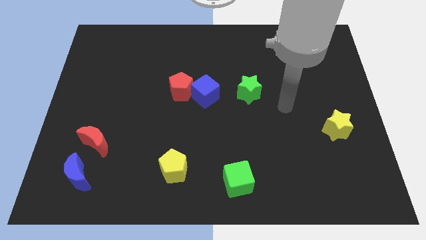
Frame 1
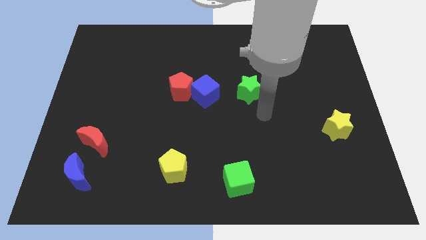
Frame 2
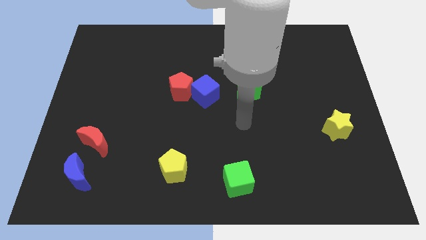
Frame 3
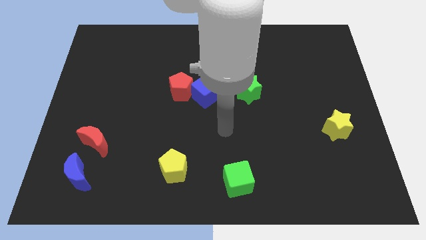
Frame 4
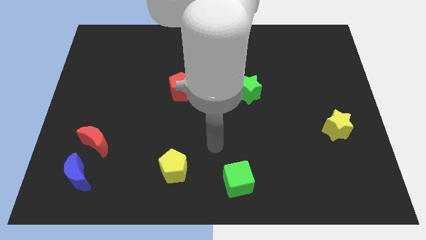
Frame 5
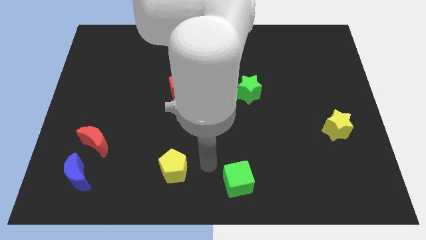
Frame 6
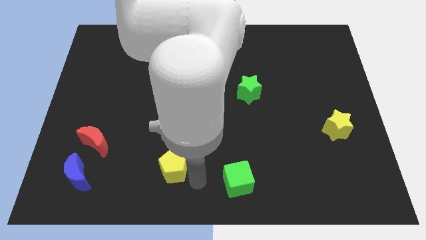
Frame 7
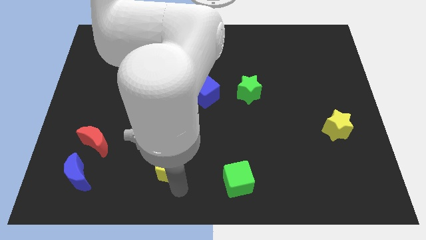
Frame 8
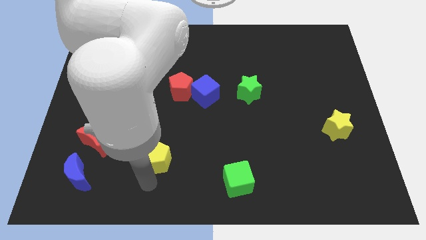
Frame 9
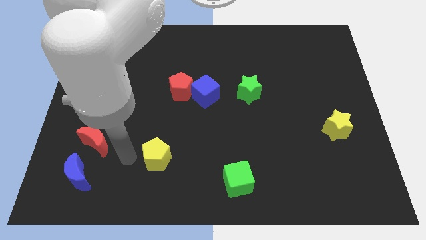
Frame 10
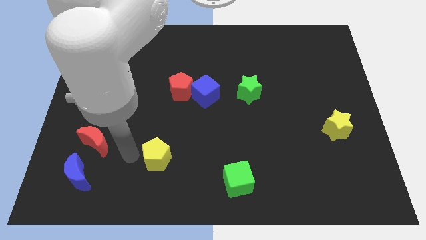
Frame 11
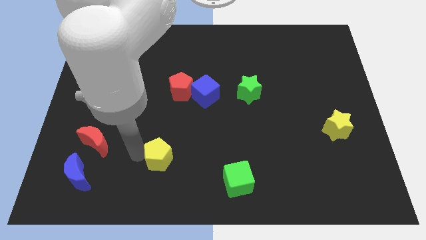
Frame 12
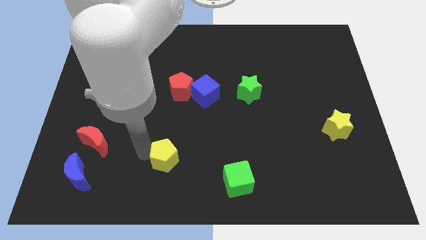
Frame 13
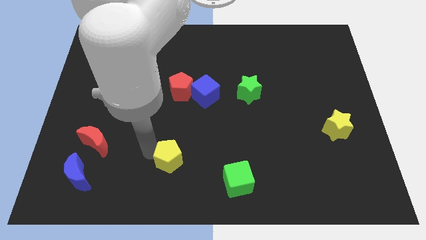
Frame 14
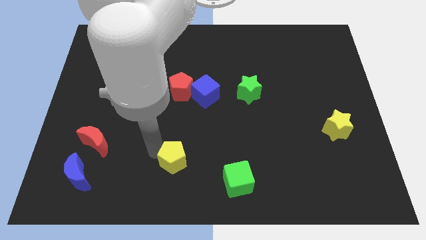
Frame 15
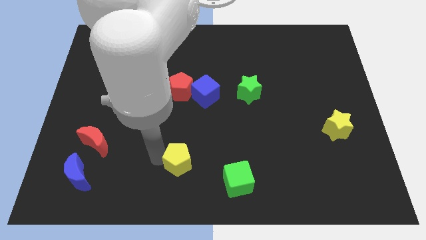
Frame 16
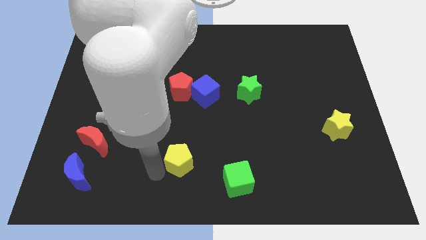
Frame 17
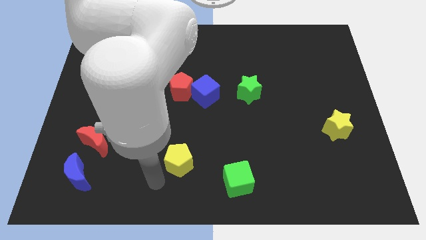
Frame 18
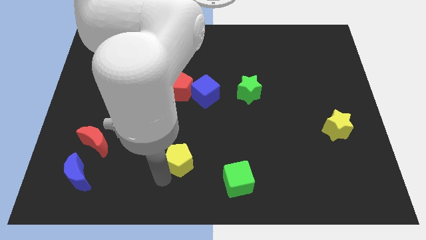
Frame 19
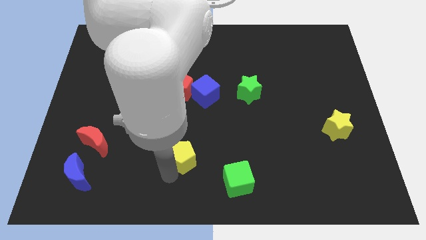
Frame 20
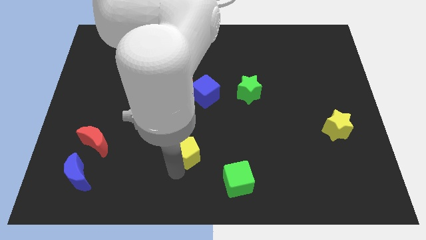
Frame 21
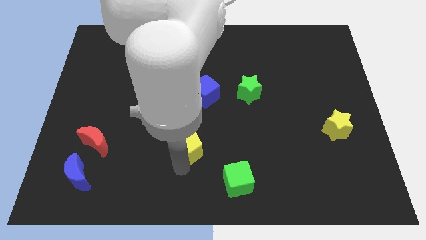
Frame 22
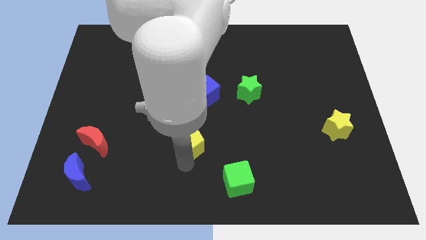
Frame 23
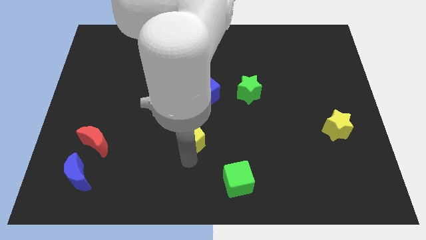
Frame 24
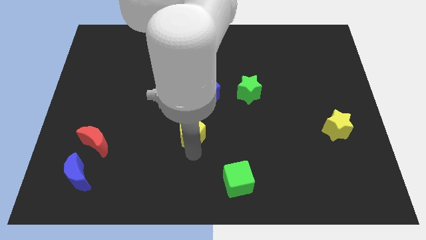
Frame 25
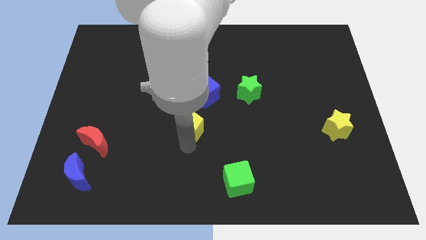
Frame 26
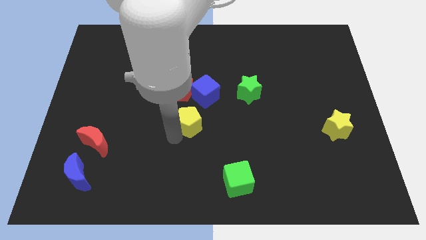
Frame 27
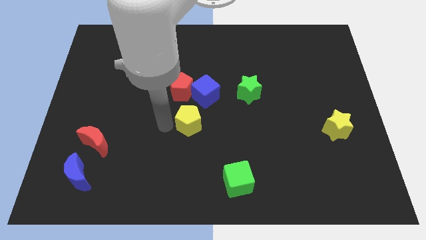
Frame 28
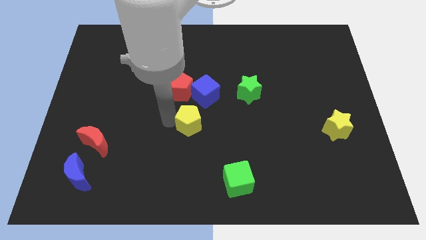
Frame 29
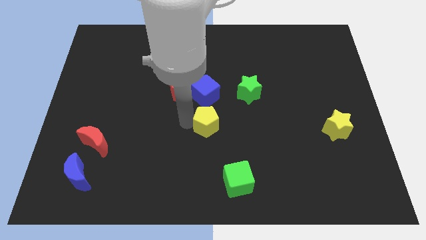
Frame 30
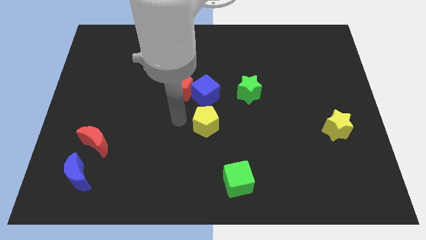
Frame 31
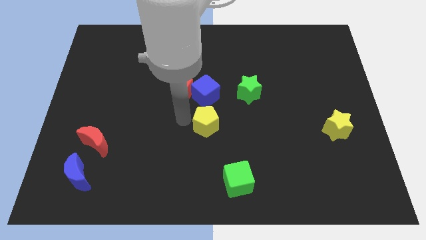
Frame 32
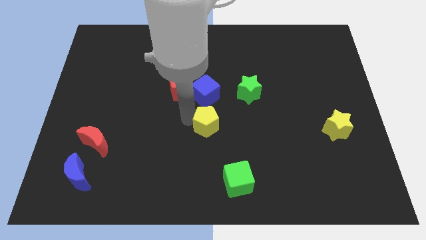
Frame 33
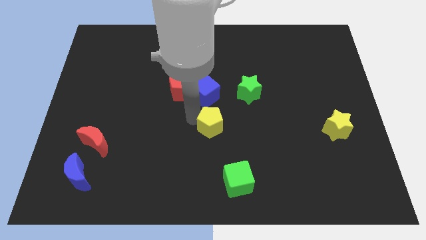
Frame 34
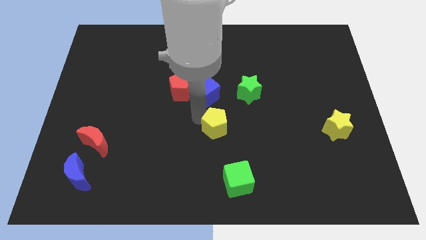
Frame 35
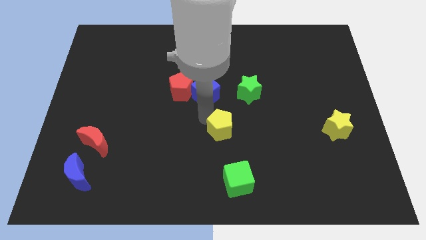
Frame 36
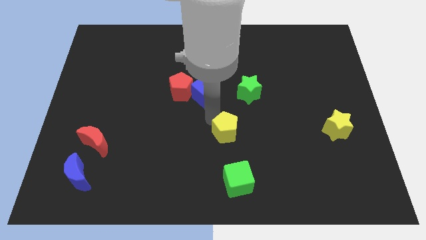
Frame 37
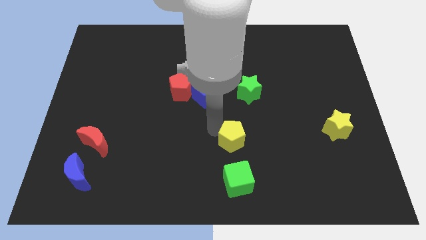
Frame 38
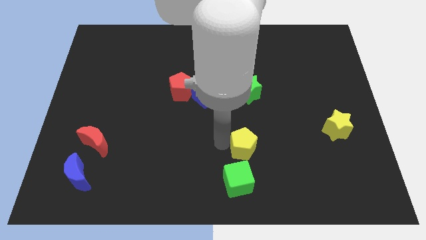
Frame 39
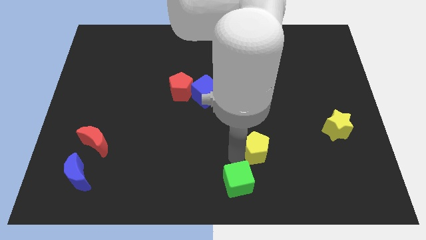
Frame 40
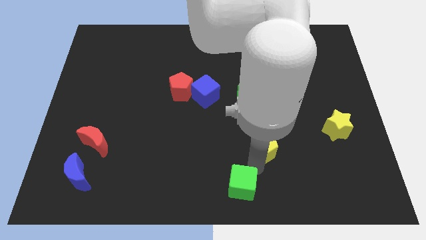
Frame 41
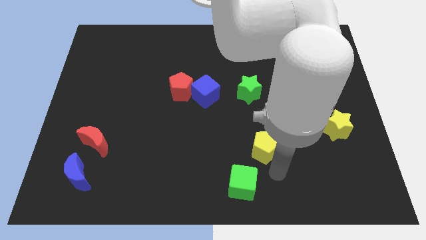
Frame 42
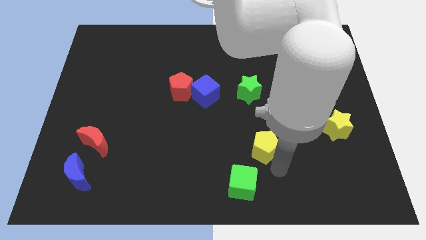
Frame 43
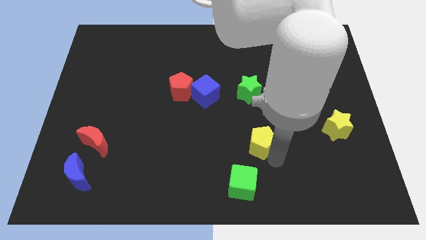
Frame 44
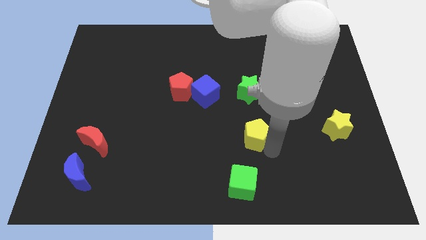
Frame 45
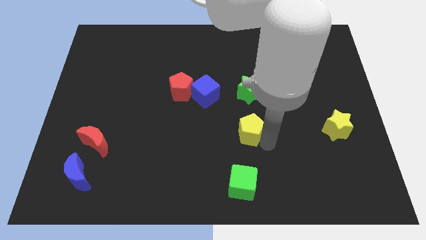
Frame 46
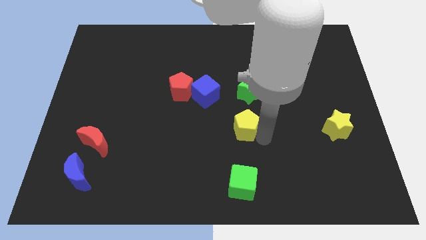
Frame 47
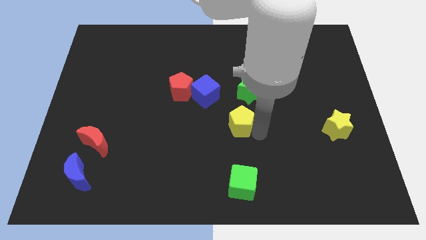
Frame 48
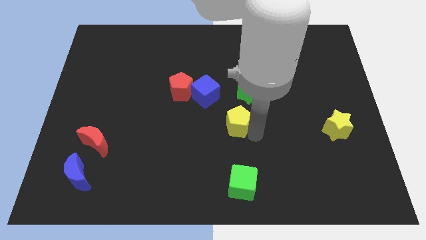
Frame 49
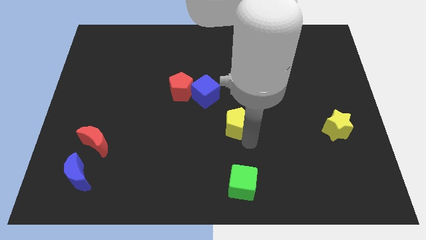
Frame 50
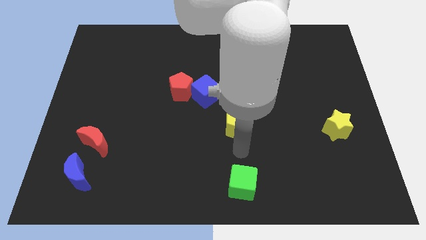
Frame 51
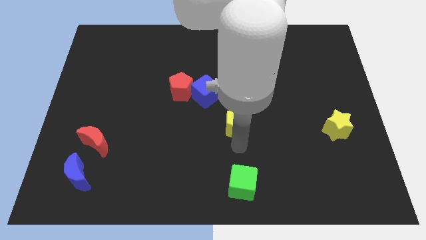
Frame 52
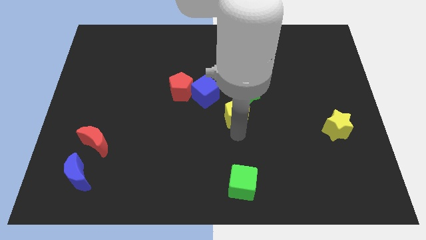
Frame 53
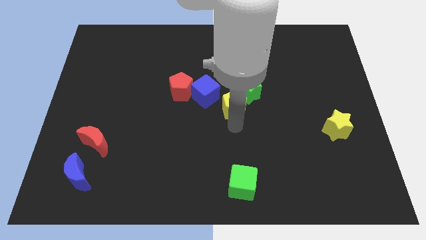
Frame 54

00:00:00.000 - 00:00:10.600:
slide the yellow pentagon close to the green star

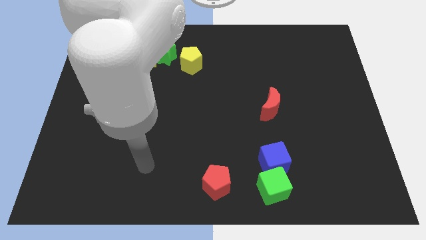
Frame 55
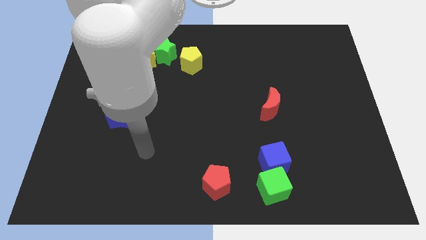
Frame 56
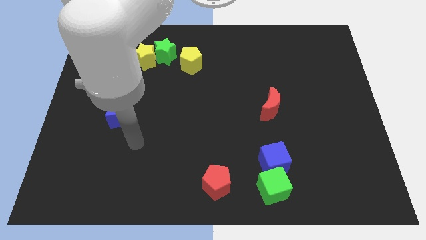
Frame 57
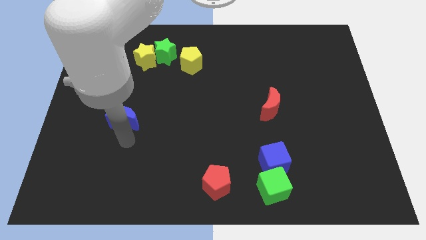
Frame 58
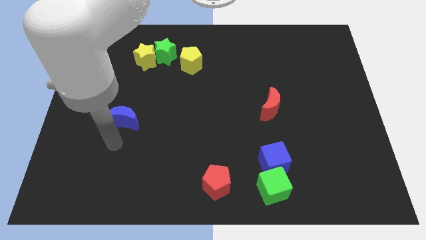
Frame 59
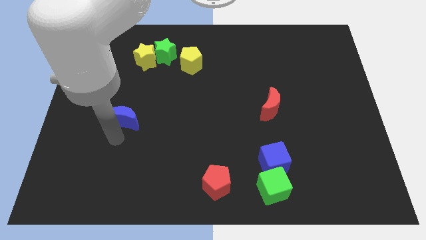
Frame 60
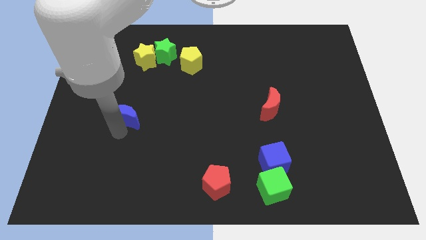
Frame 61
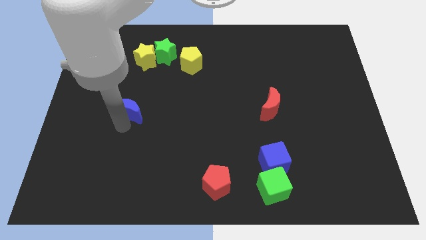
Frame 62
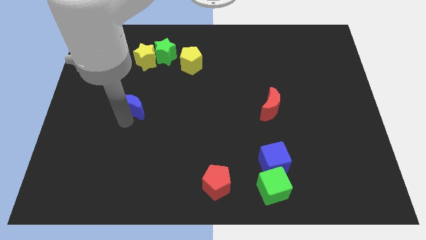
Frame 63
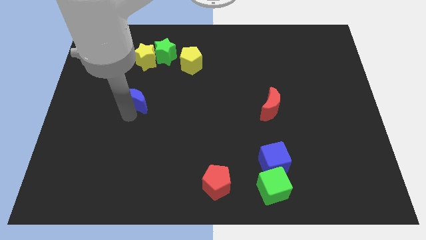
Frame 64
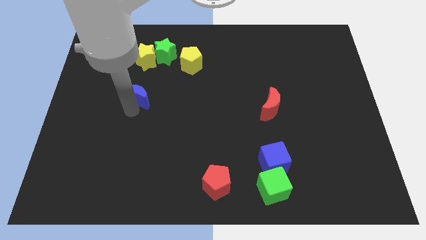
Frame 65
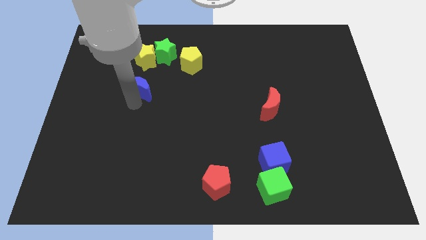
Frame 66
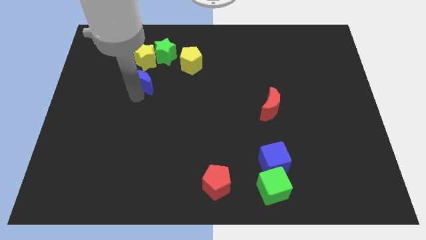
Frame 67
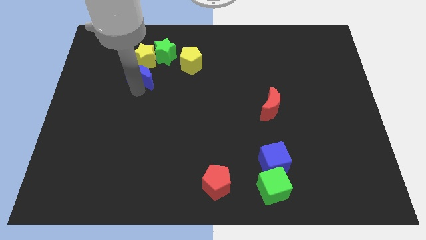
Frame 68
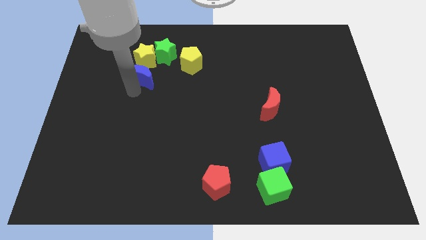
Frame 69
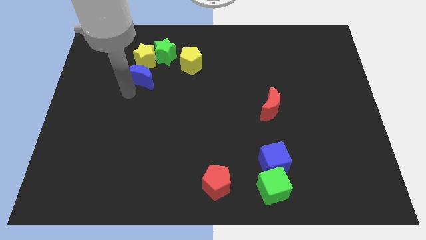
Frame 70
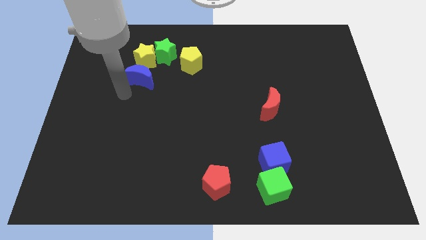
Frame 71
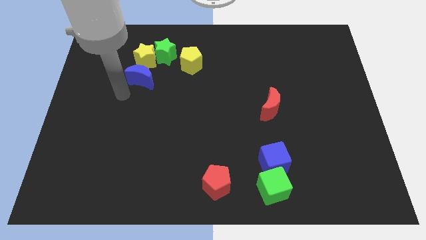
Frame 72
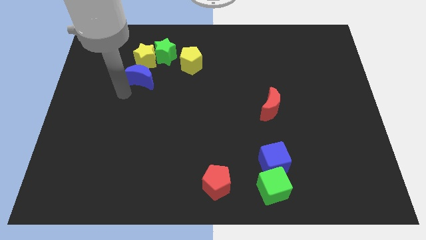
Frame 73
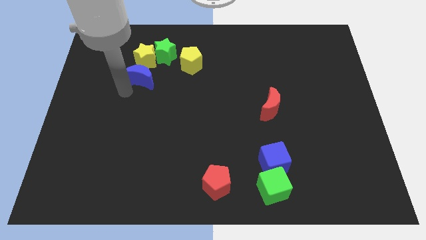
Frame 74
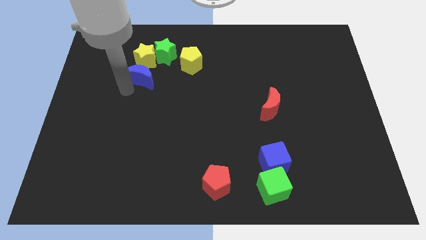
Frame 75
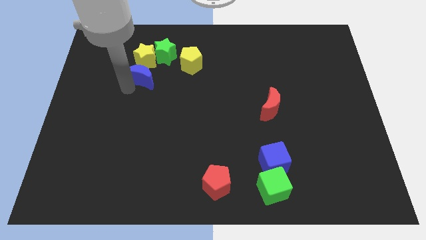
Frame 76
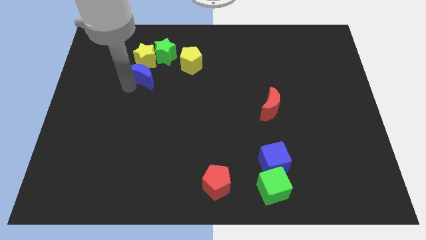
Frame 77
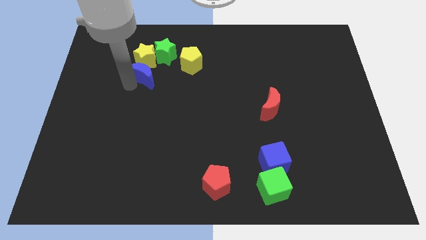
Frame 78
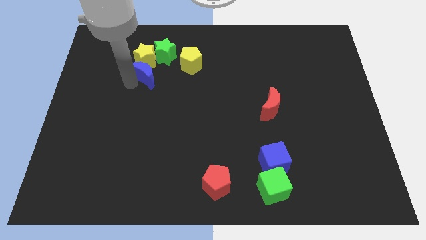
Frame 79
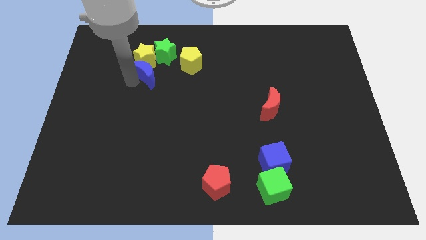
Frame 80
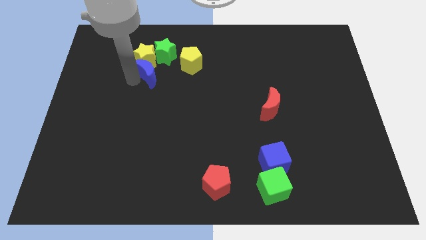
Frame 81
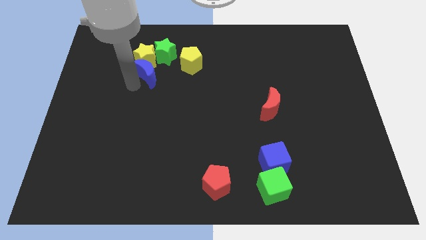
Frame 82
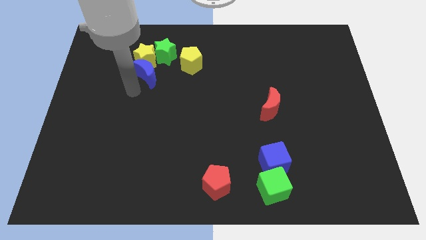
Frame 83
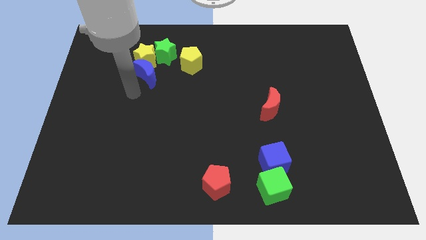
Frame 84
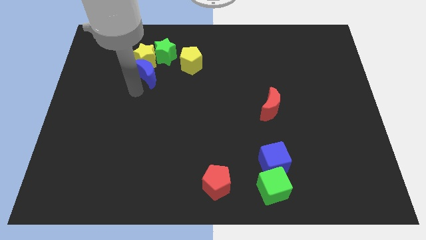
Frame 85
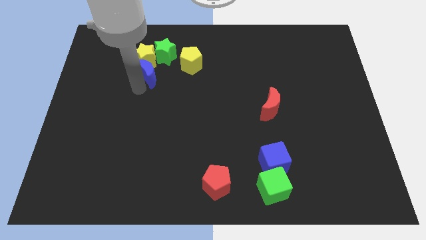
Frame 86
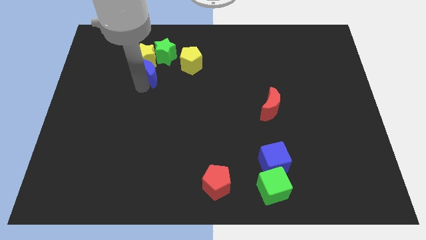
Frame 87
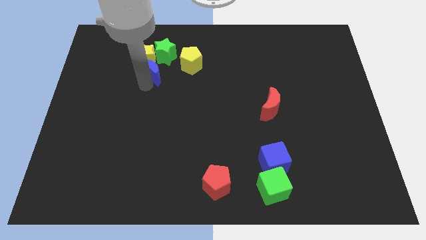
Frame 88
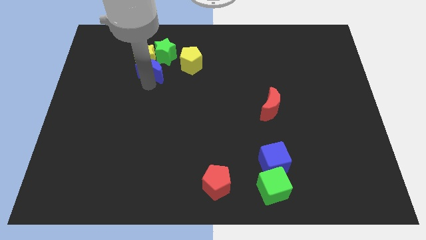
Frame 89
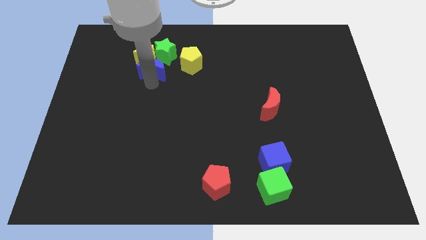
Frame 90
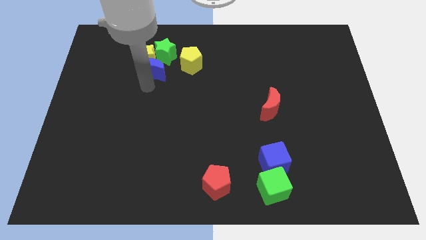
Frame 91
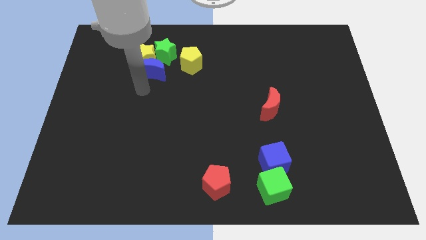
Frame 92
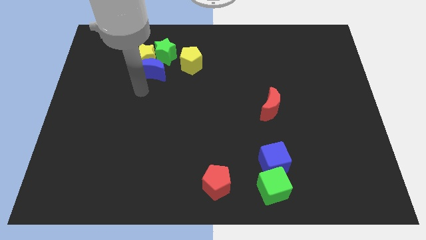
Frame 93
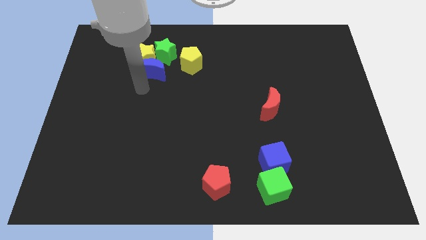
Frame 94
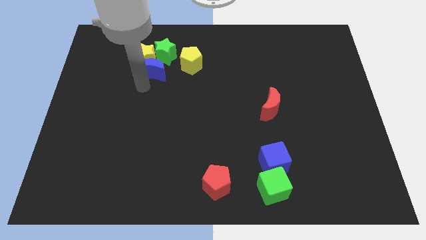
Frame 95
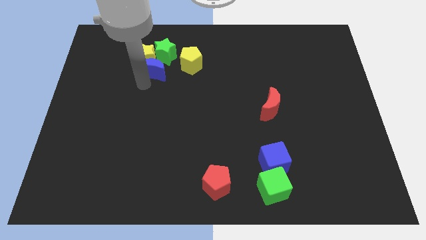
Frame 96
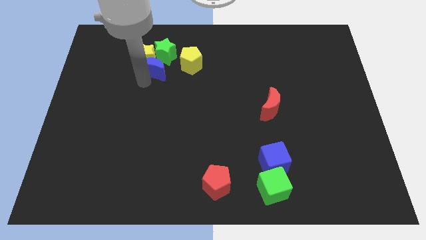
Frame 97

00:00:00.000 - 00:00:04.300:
slide the blue moon towards the green star
